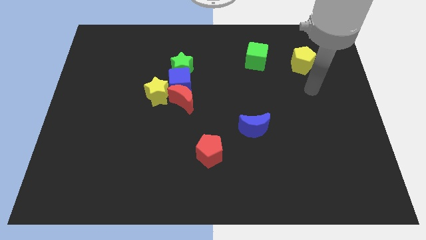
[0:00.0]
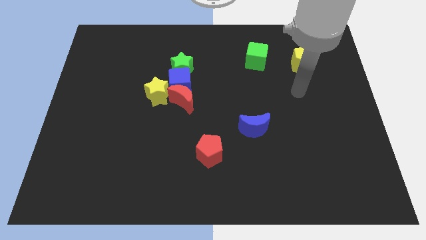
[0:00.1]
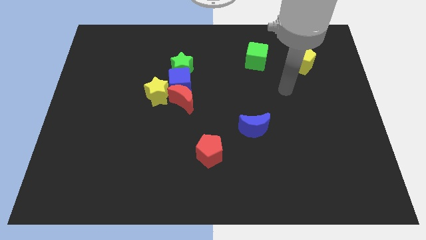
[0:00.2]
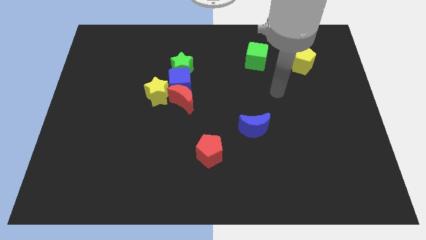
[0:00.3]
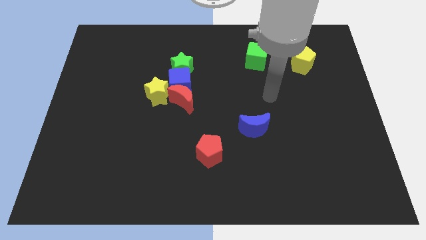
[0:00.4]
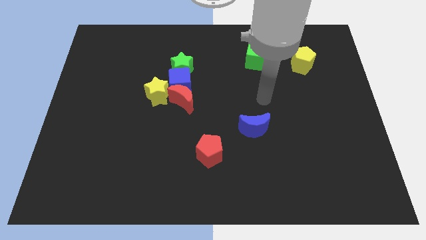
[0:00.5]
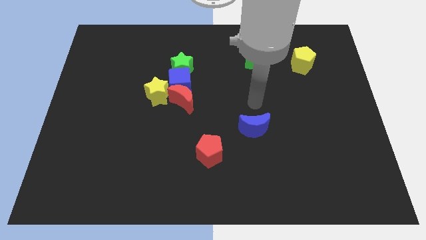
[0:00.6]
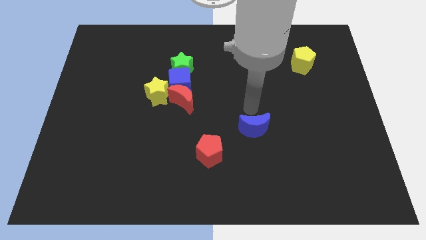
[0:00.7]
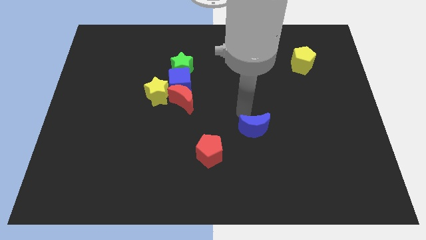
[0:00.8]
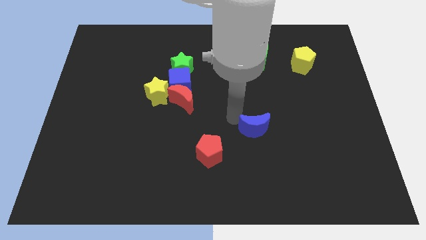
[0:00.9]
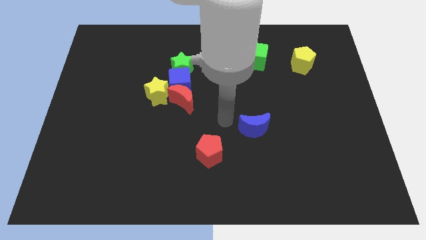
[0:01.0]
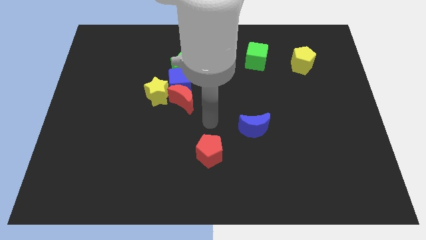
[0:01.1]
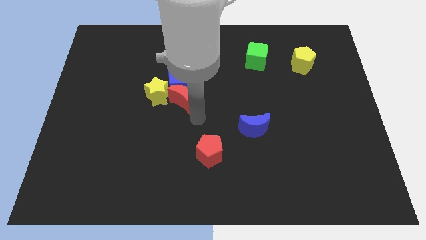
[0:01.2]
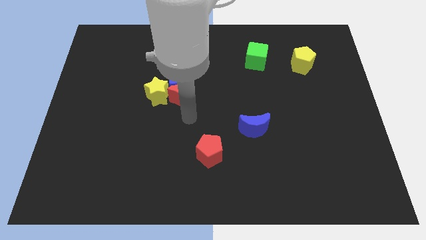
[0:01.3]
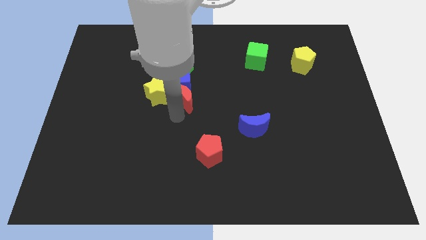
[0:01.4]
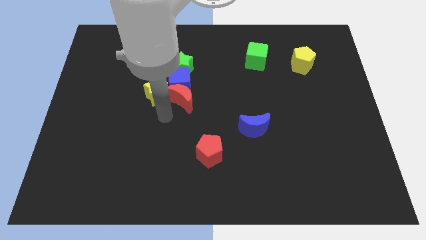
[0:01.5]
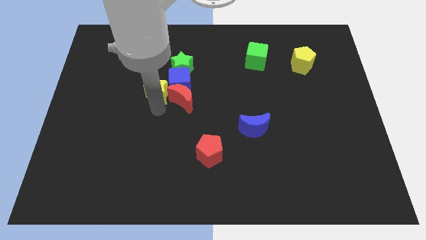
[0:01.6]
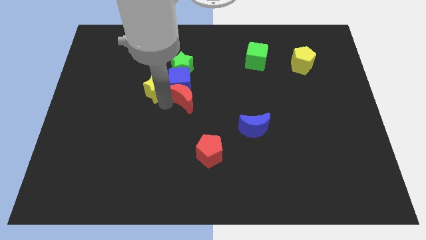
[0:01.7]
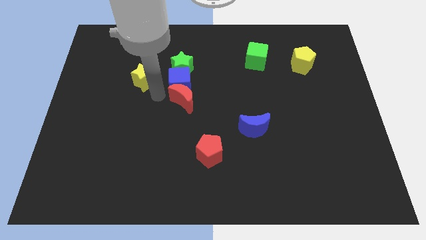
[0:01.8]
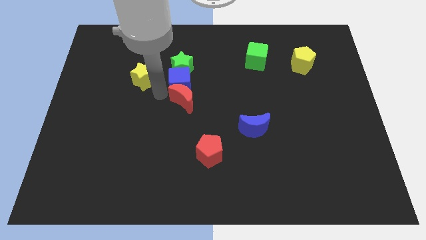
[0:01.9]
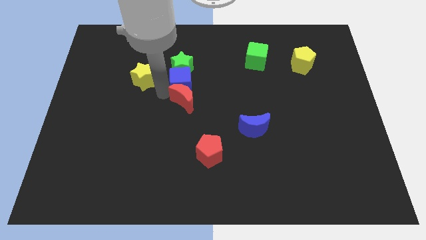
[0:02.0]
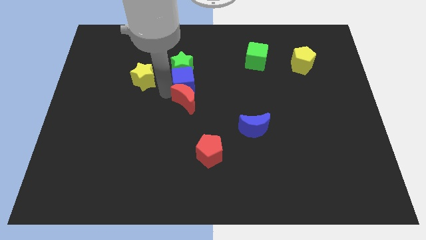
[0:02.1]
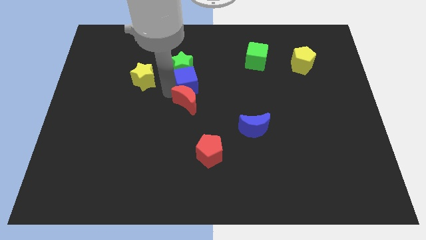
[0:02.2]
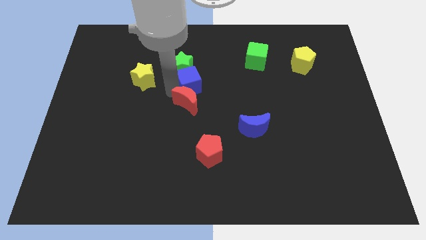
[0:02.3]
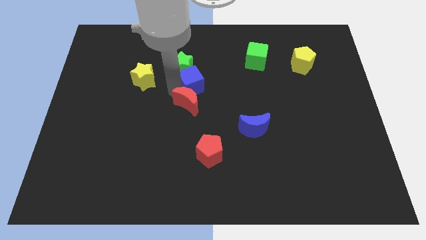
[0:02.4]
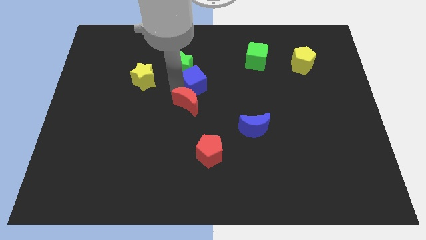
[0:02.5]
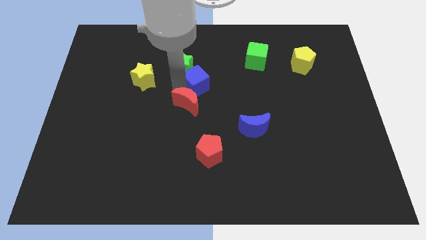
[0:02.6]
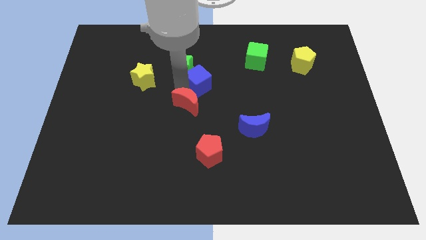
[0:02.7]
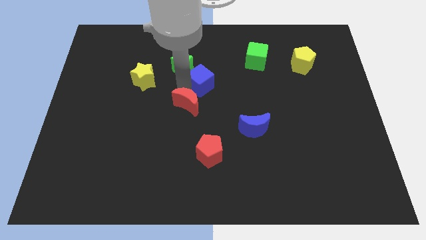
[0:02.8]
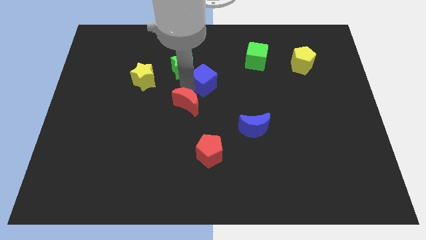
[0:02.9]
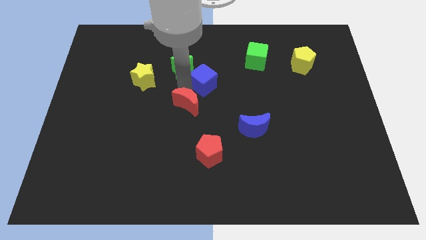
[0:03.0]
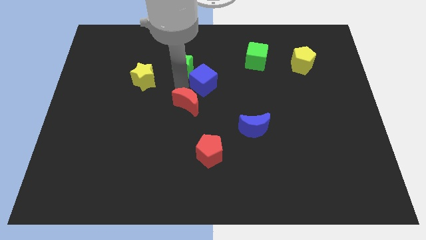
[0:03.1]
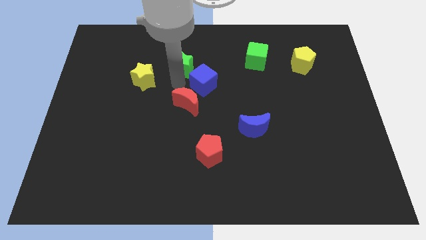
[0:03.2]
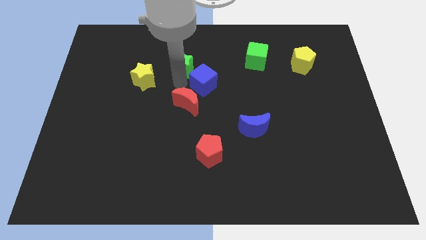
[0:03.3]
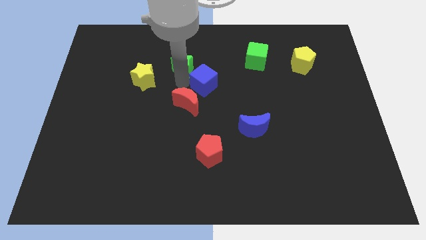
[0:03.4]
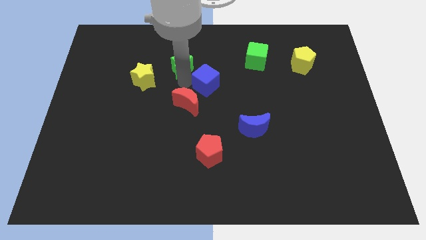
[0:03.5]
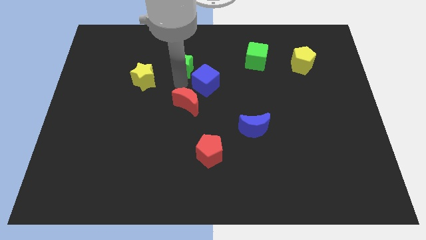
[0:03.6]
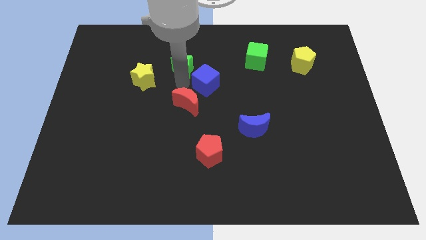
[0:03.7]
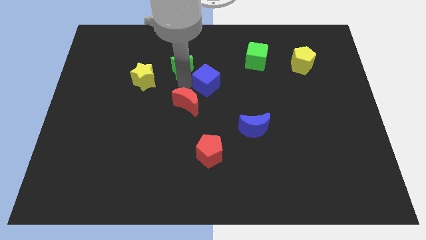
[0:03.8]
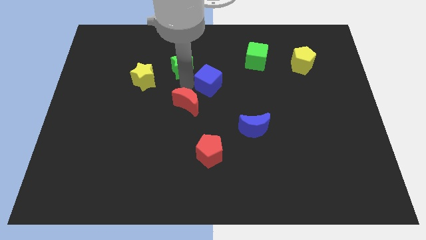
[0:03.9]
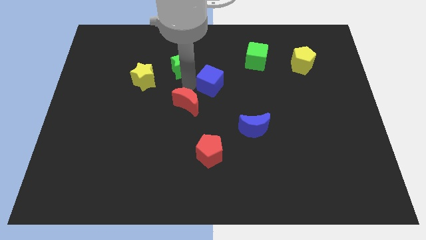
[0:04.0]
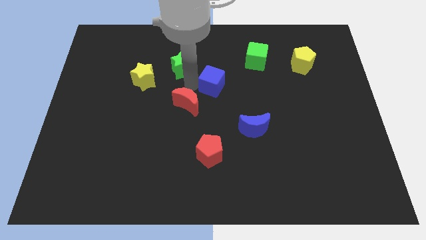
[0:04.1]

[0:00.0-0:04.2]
separate the blue cube from the group of blocks

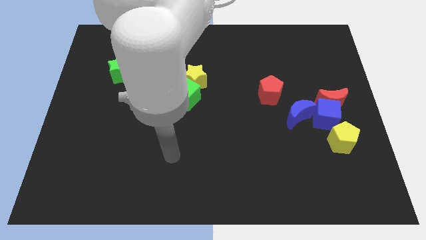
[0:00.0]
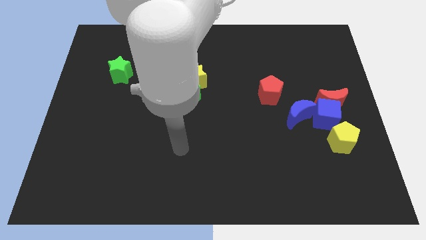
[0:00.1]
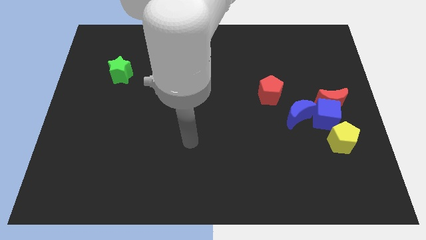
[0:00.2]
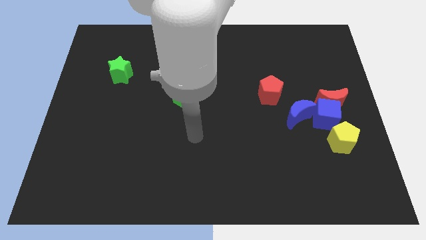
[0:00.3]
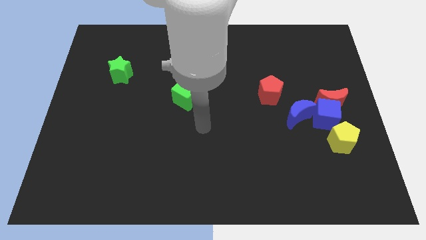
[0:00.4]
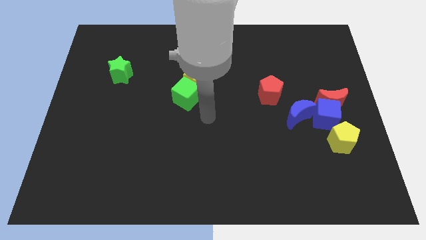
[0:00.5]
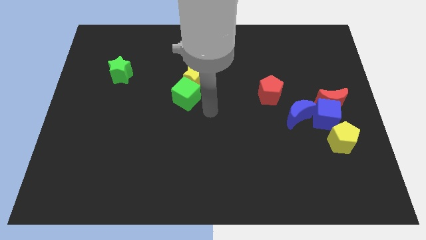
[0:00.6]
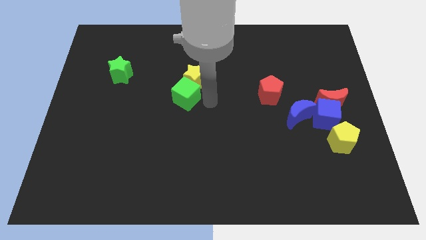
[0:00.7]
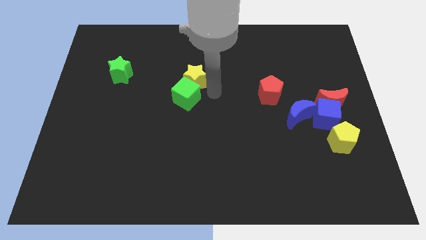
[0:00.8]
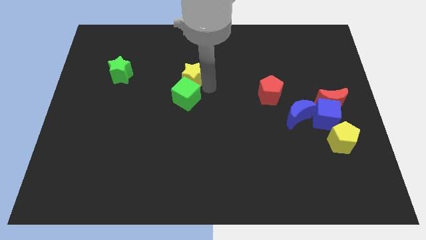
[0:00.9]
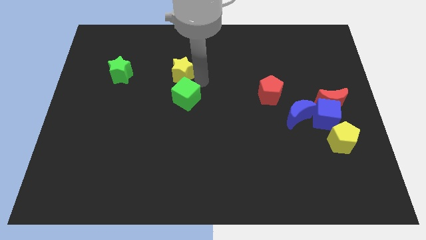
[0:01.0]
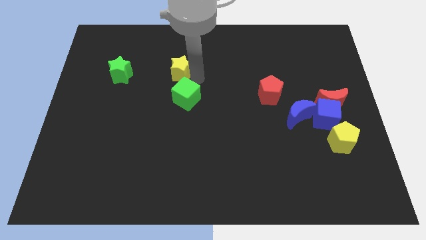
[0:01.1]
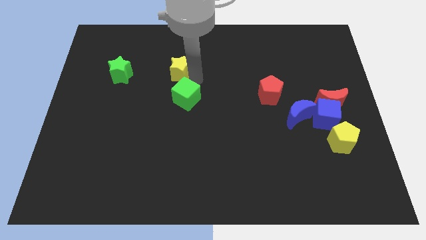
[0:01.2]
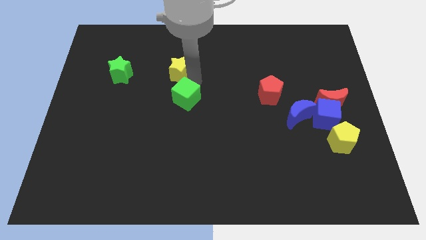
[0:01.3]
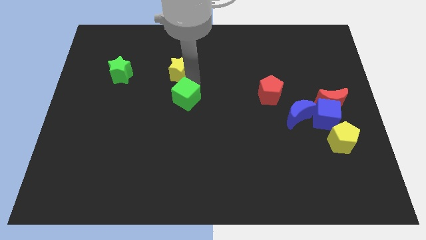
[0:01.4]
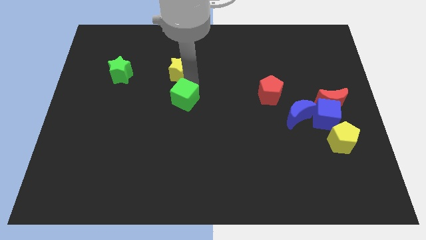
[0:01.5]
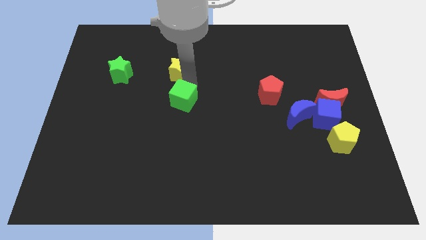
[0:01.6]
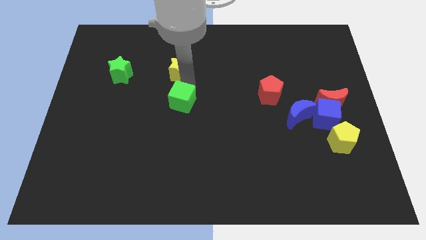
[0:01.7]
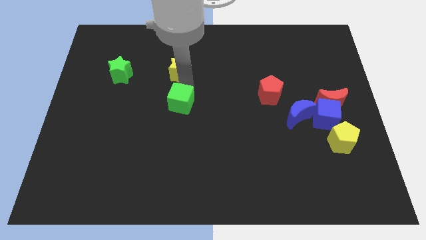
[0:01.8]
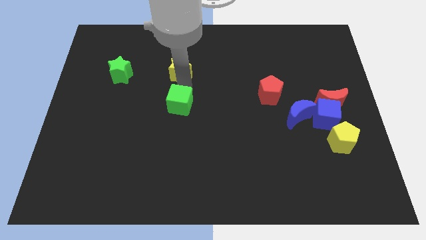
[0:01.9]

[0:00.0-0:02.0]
move the green cube away from the yellow star

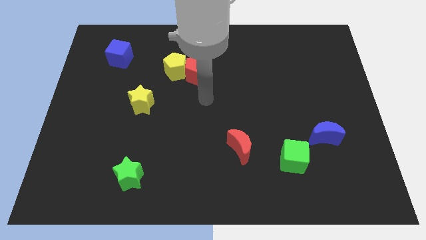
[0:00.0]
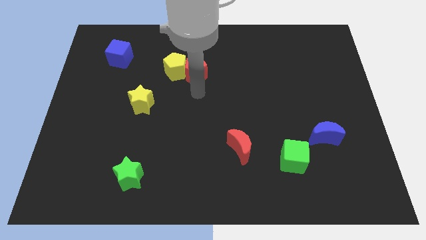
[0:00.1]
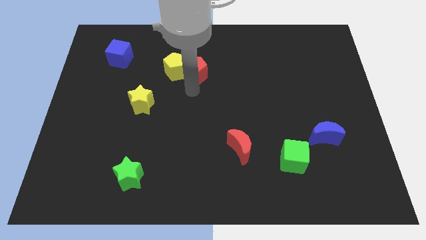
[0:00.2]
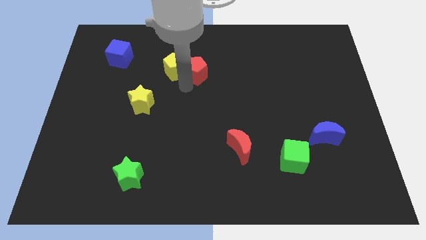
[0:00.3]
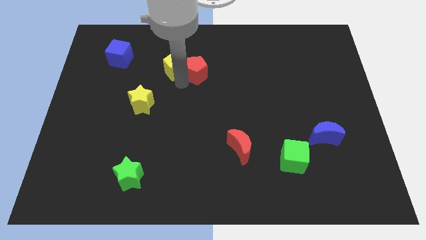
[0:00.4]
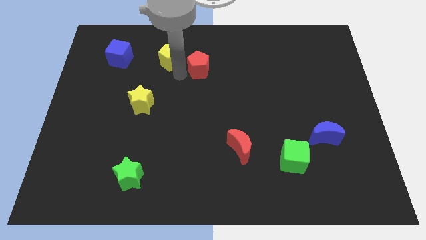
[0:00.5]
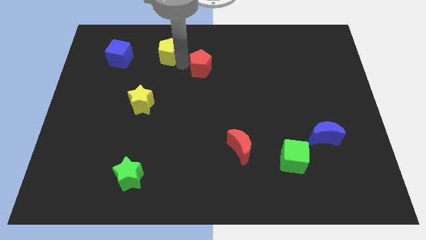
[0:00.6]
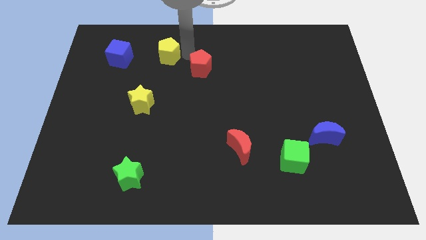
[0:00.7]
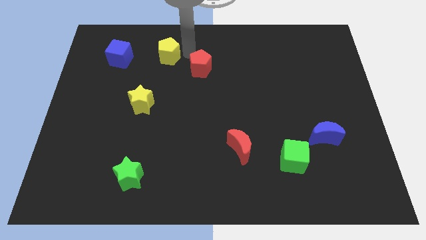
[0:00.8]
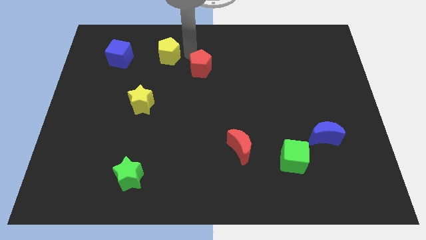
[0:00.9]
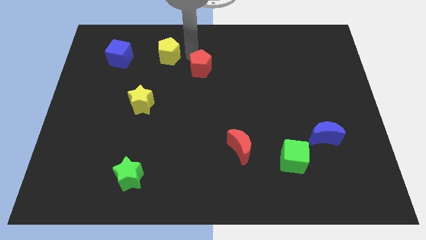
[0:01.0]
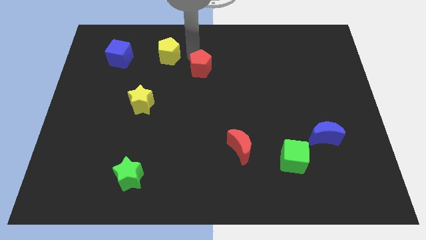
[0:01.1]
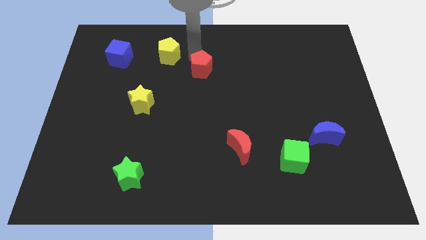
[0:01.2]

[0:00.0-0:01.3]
separate the red pentagon from the yellow pentagon

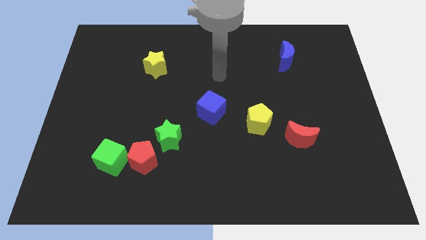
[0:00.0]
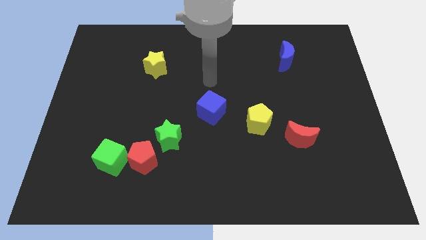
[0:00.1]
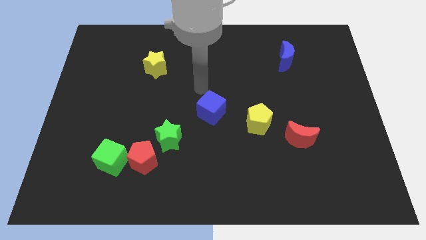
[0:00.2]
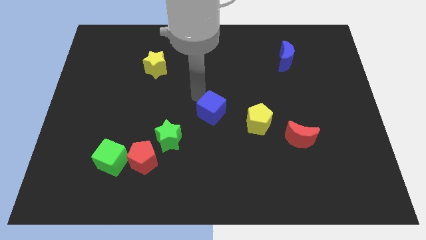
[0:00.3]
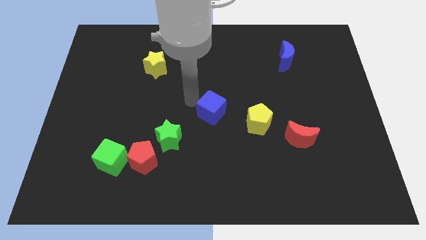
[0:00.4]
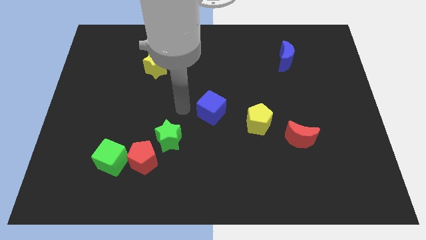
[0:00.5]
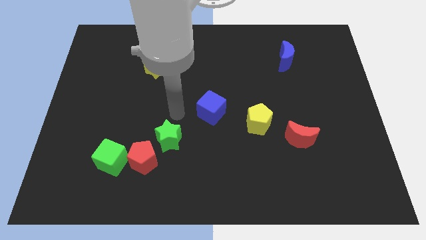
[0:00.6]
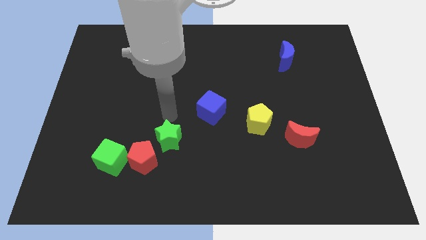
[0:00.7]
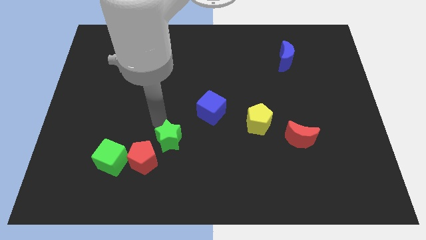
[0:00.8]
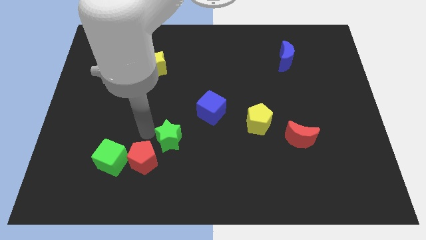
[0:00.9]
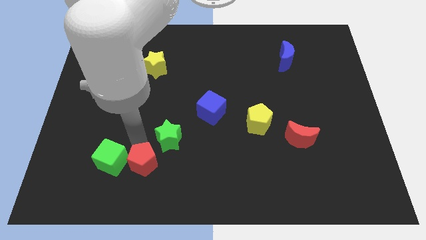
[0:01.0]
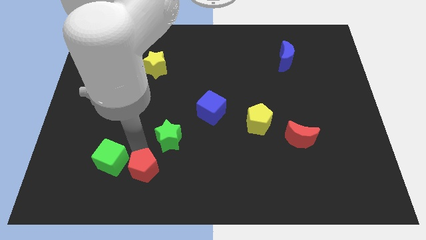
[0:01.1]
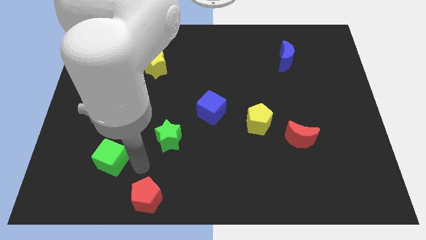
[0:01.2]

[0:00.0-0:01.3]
separate the green cube from the red pentagon

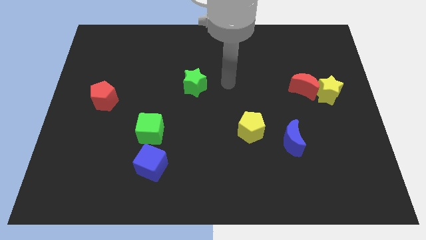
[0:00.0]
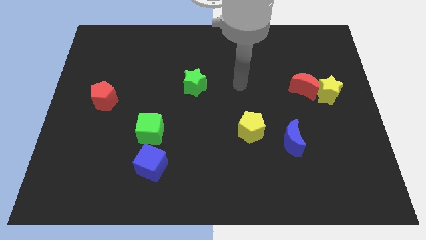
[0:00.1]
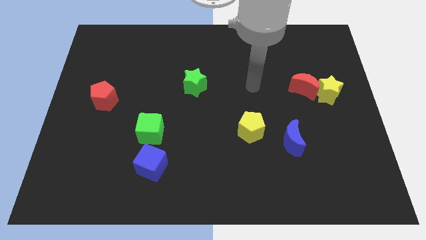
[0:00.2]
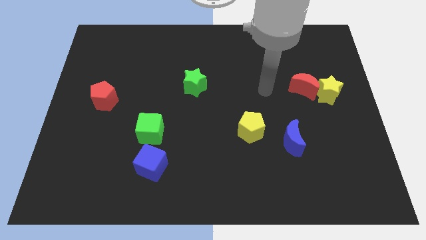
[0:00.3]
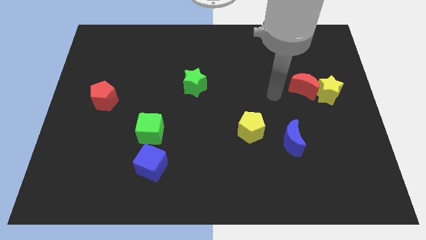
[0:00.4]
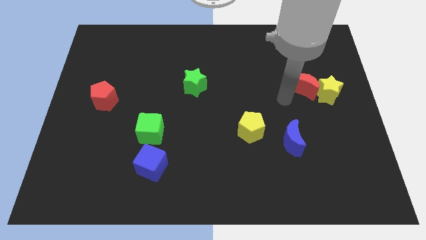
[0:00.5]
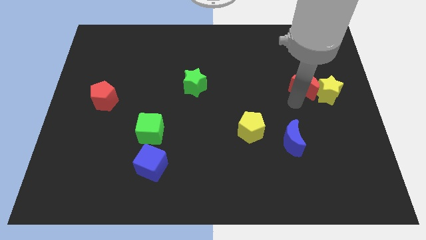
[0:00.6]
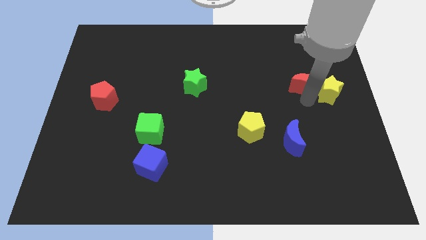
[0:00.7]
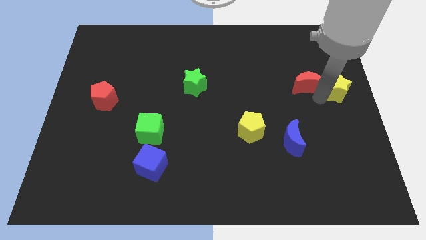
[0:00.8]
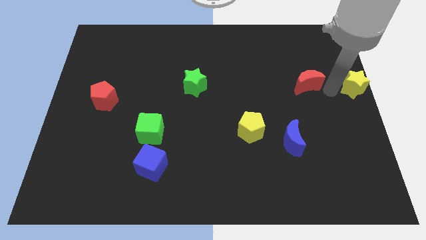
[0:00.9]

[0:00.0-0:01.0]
pull the red moon apart from the yellow star
